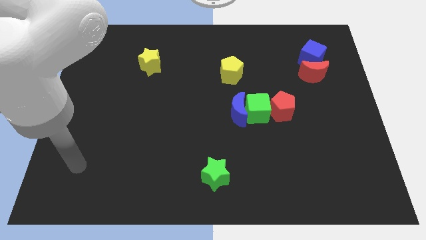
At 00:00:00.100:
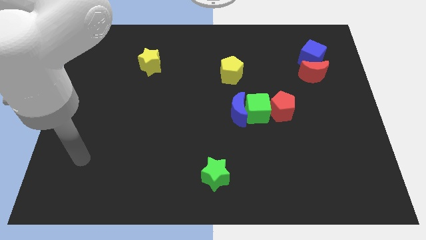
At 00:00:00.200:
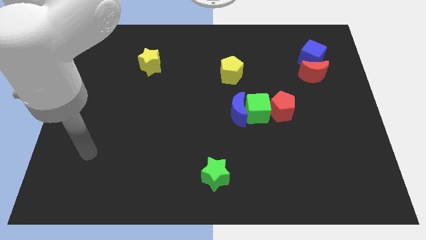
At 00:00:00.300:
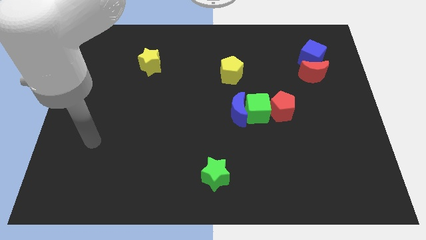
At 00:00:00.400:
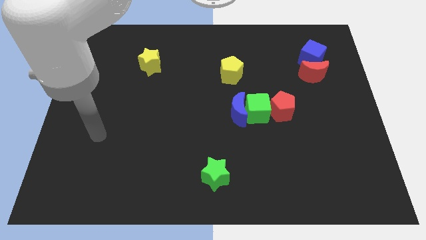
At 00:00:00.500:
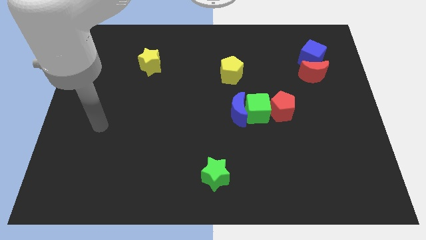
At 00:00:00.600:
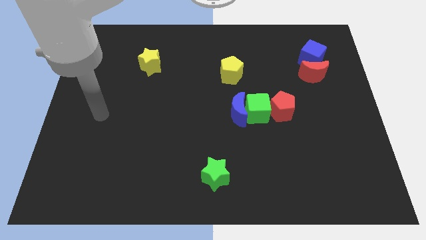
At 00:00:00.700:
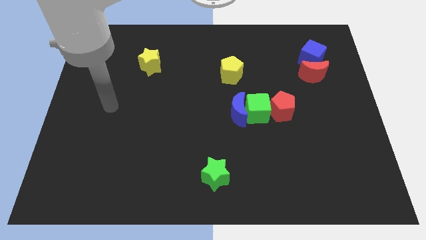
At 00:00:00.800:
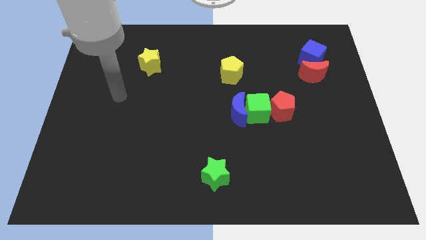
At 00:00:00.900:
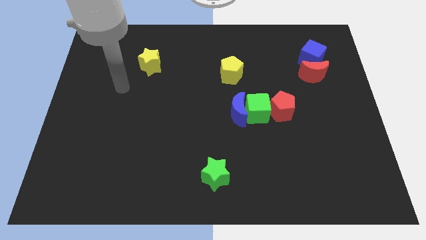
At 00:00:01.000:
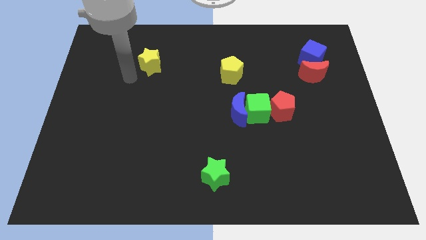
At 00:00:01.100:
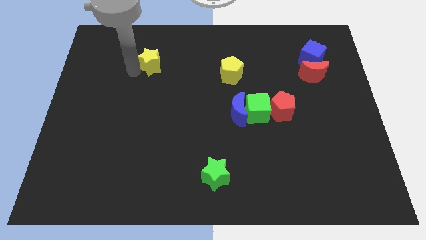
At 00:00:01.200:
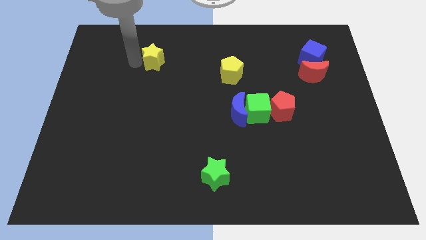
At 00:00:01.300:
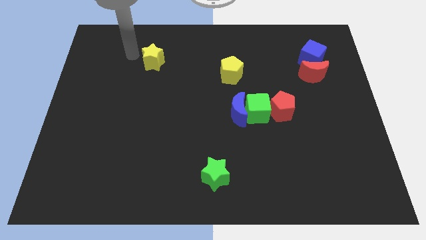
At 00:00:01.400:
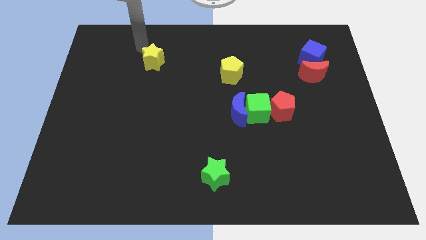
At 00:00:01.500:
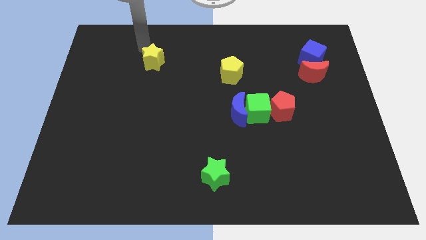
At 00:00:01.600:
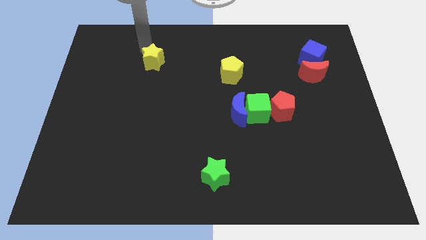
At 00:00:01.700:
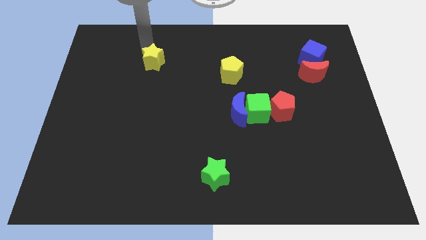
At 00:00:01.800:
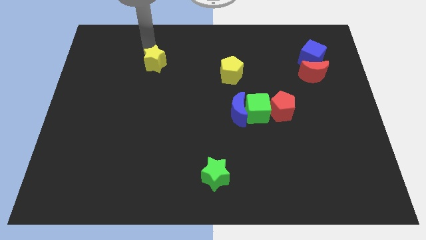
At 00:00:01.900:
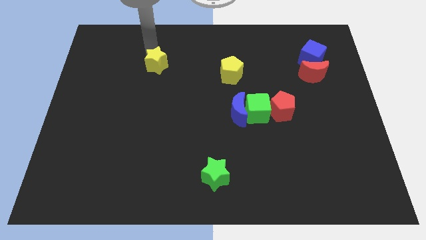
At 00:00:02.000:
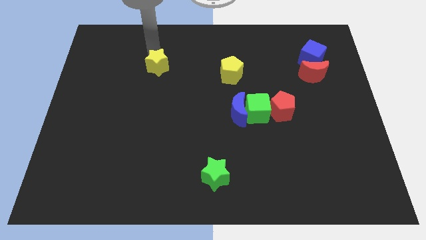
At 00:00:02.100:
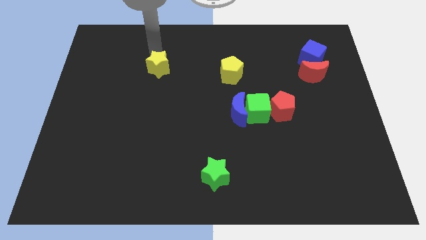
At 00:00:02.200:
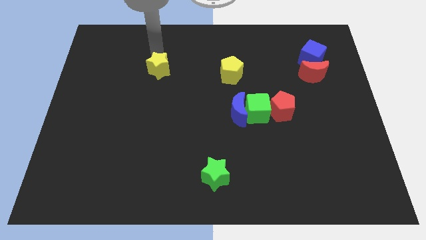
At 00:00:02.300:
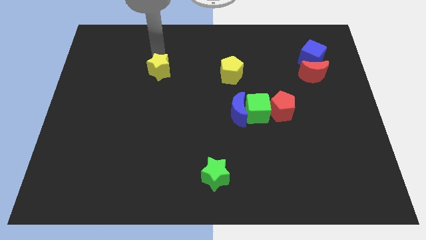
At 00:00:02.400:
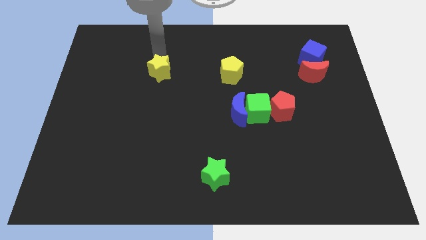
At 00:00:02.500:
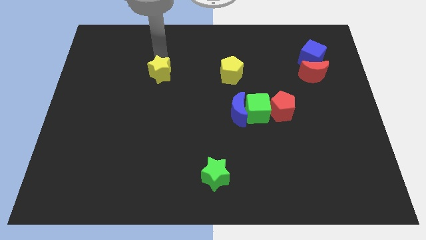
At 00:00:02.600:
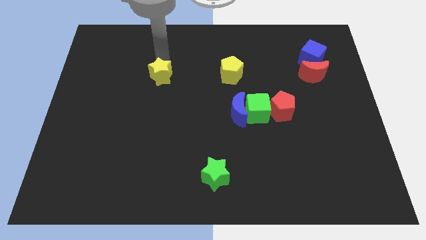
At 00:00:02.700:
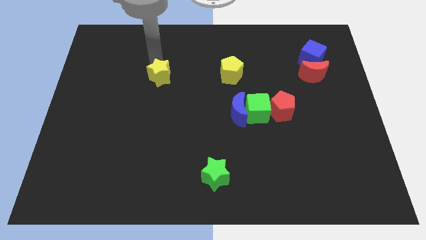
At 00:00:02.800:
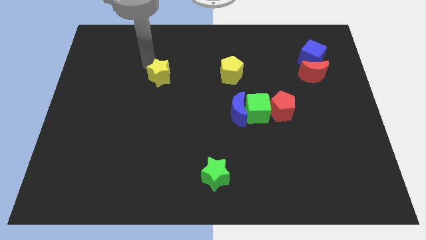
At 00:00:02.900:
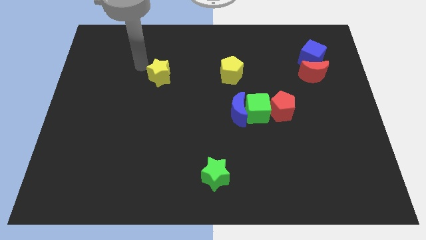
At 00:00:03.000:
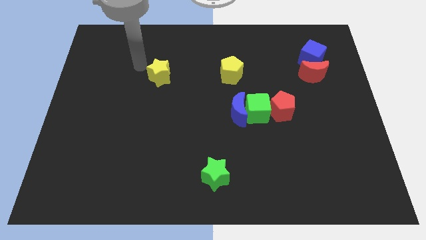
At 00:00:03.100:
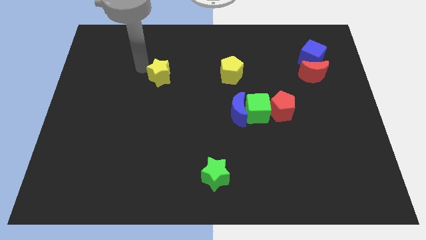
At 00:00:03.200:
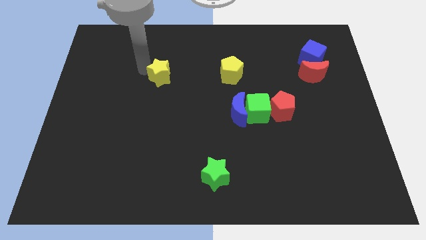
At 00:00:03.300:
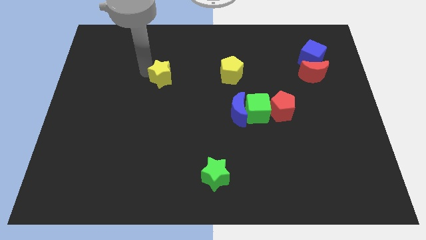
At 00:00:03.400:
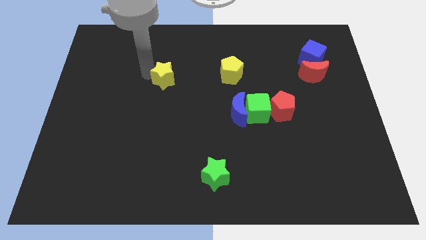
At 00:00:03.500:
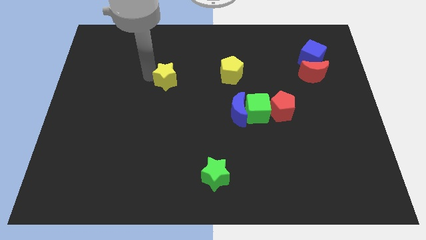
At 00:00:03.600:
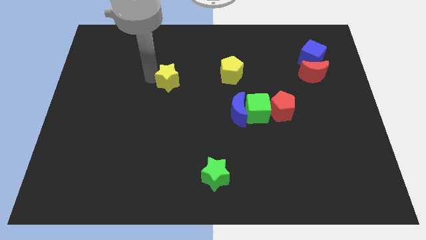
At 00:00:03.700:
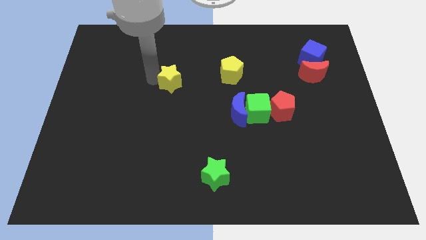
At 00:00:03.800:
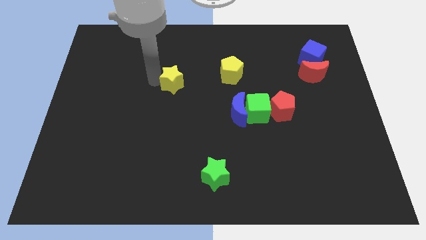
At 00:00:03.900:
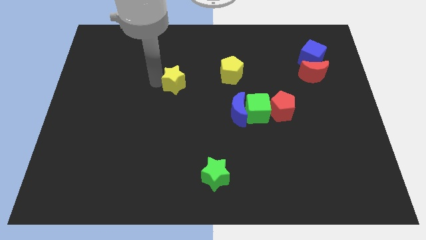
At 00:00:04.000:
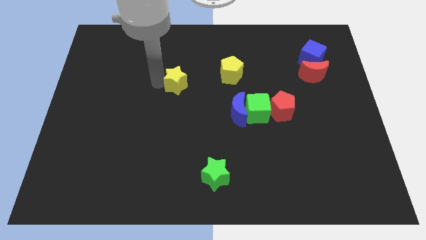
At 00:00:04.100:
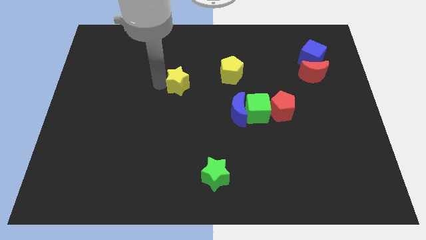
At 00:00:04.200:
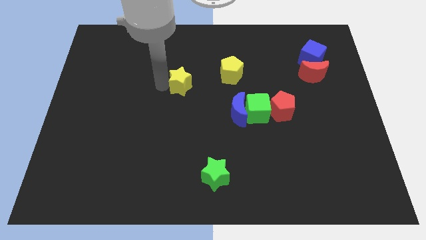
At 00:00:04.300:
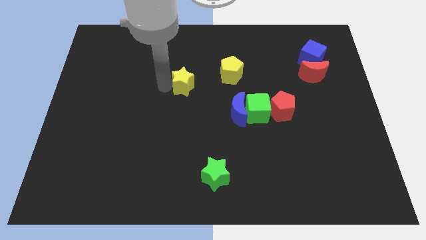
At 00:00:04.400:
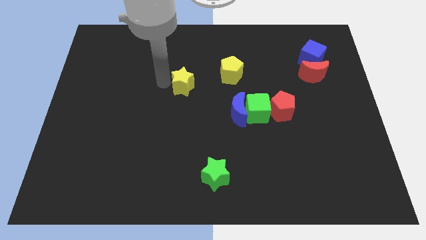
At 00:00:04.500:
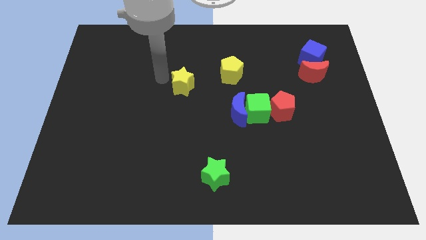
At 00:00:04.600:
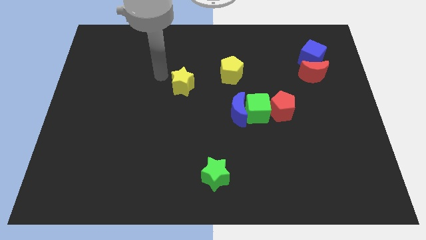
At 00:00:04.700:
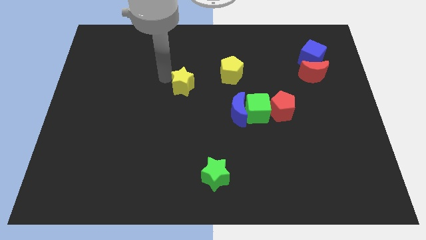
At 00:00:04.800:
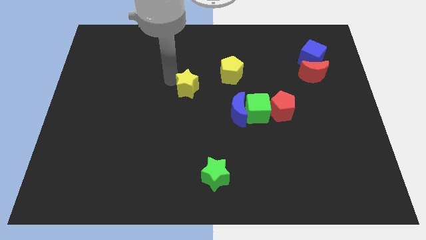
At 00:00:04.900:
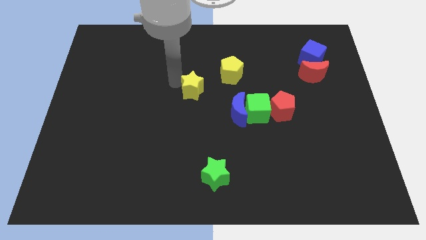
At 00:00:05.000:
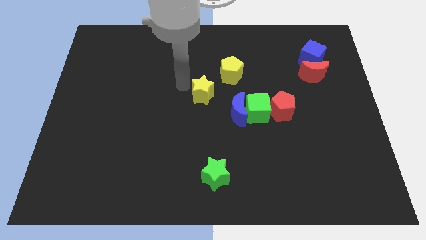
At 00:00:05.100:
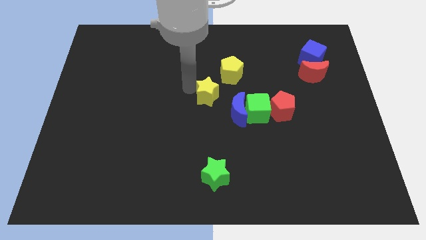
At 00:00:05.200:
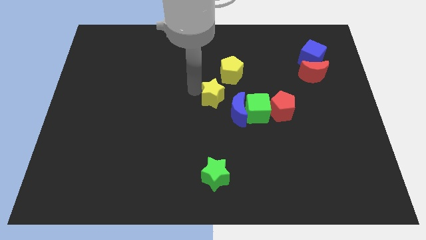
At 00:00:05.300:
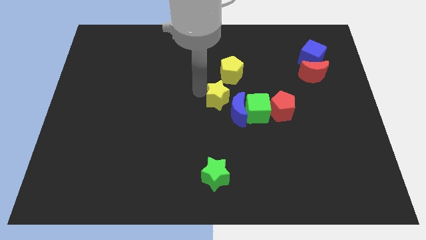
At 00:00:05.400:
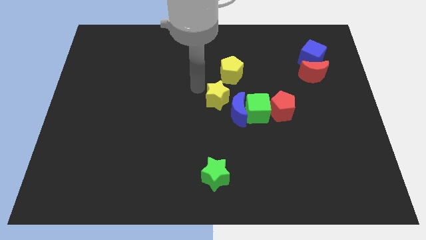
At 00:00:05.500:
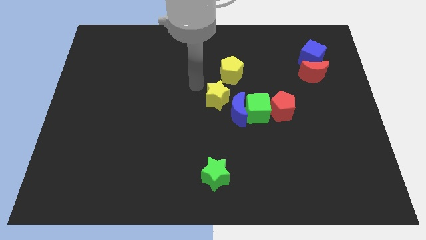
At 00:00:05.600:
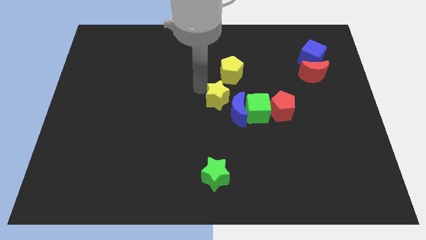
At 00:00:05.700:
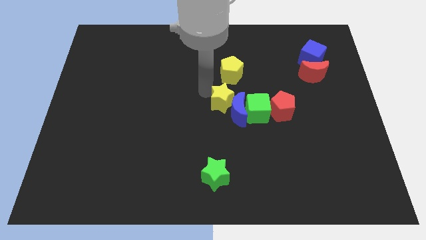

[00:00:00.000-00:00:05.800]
push the yellow star next to the blue moon
